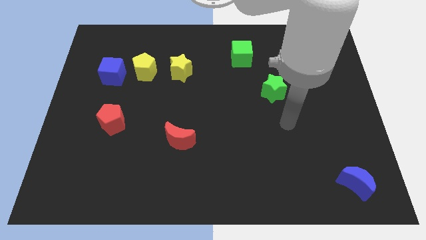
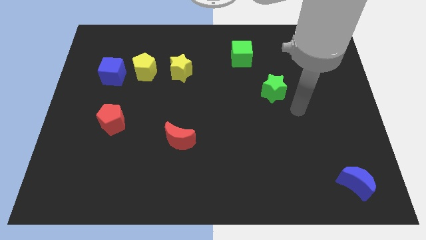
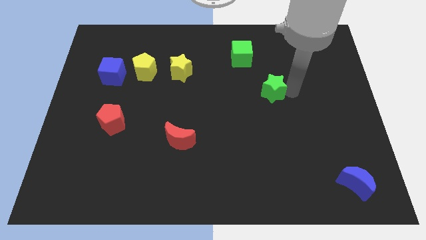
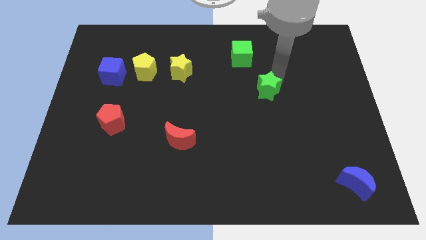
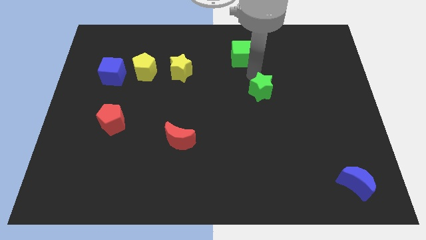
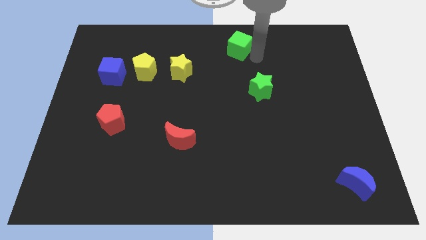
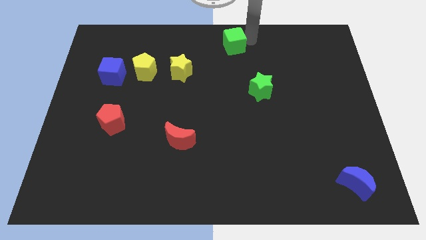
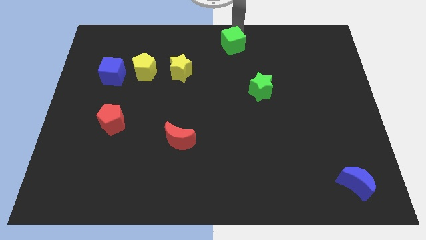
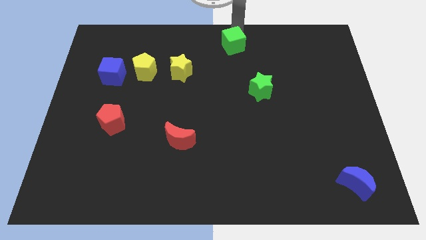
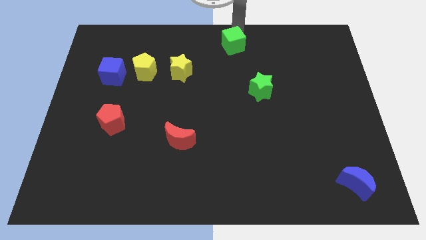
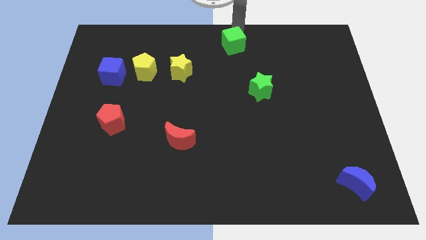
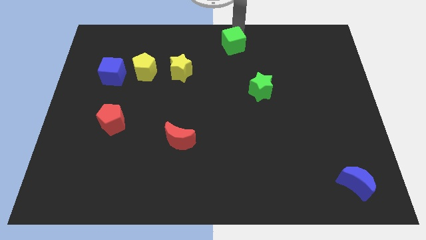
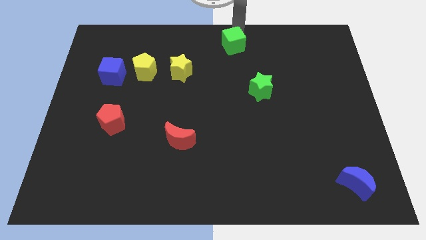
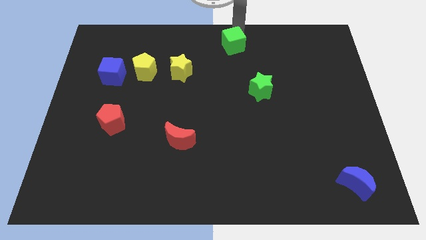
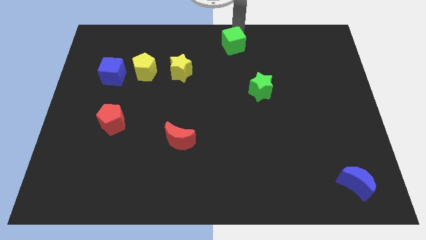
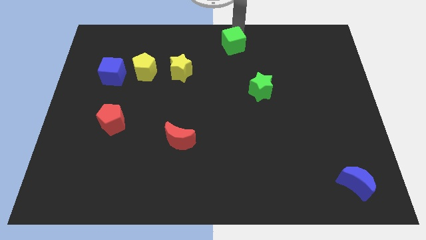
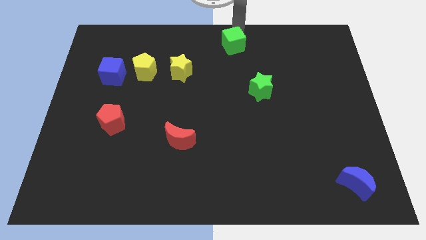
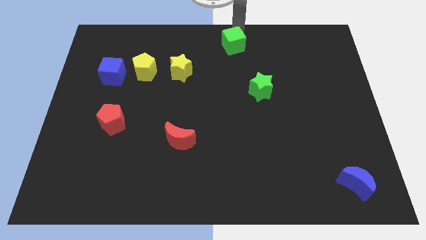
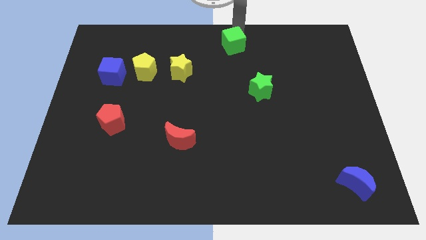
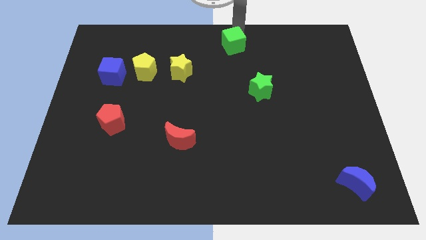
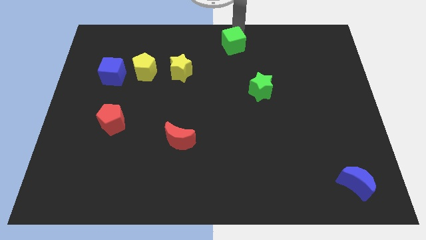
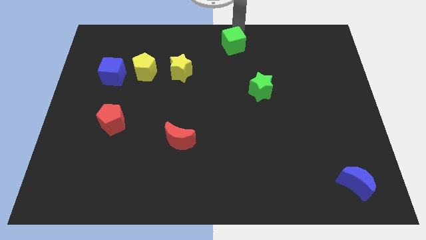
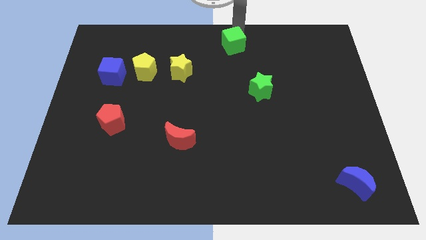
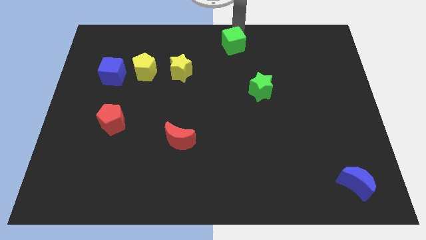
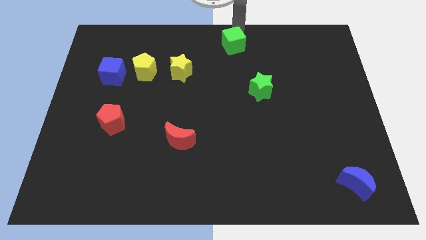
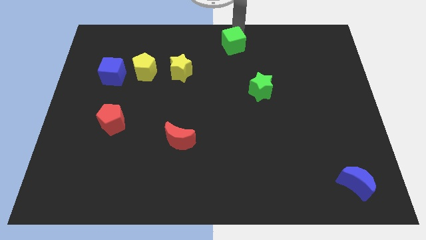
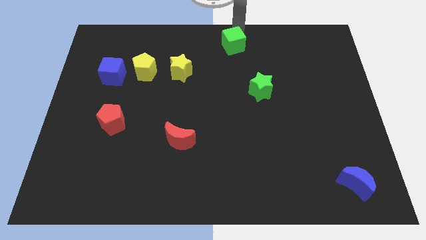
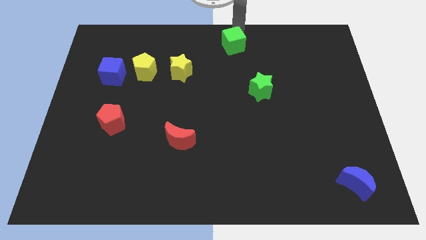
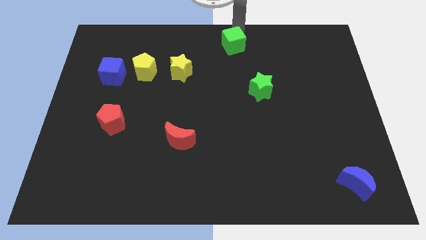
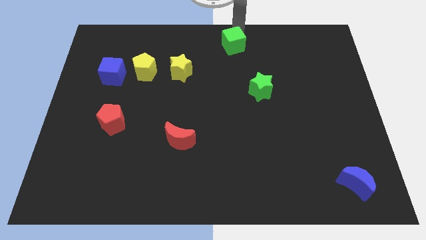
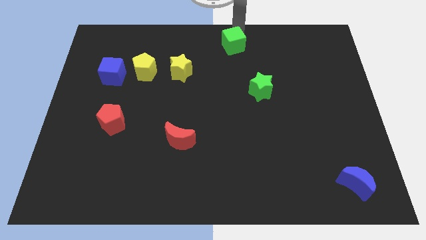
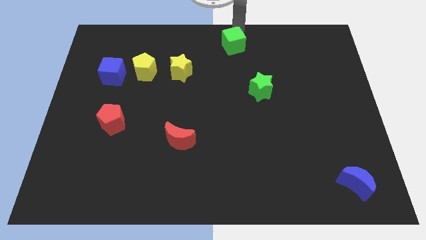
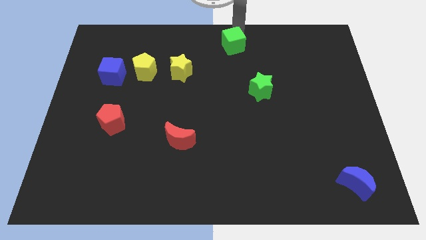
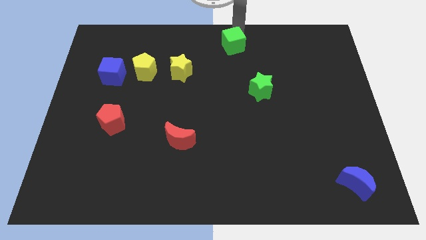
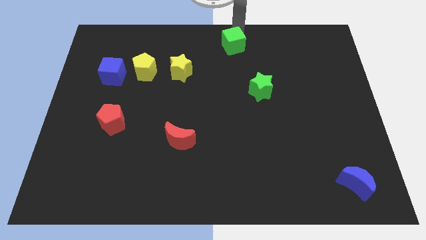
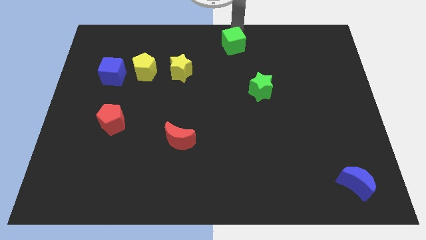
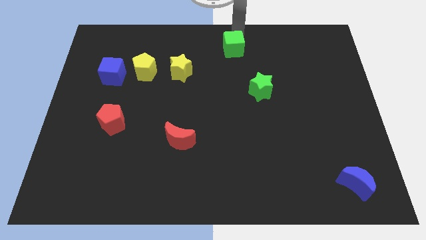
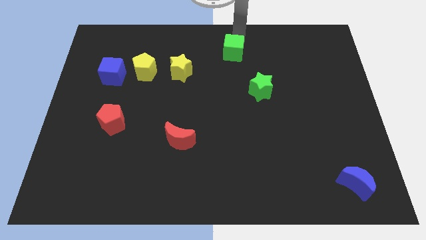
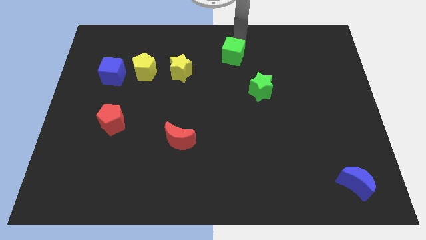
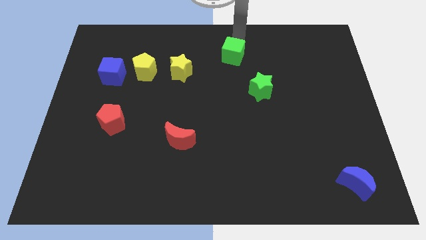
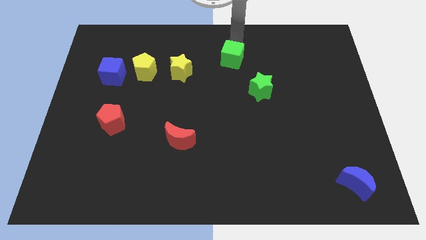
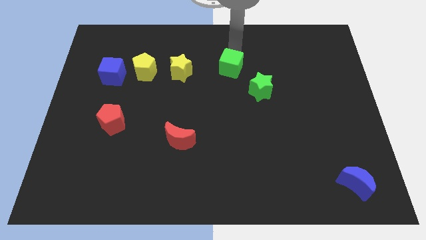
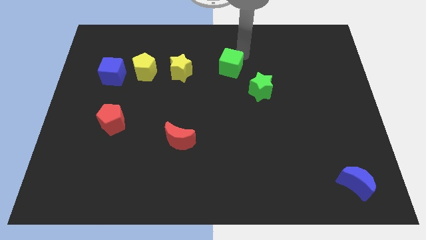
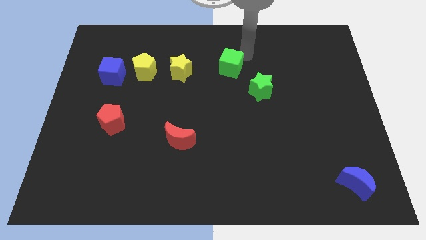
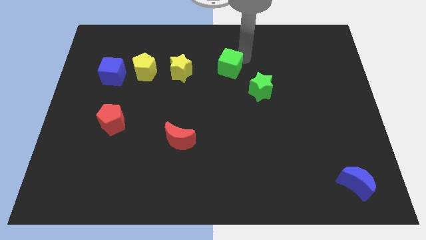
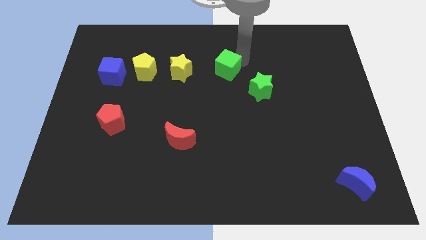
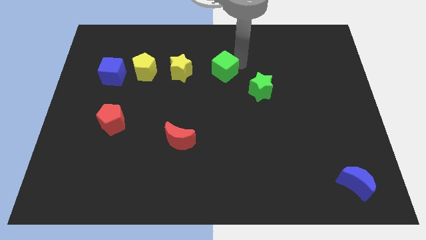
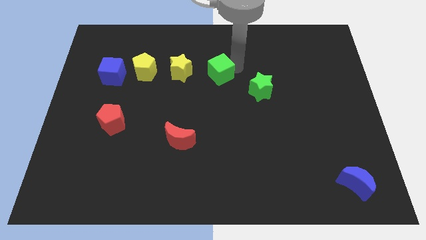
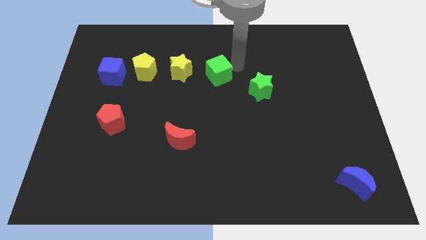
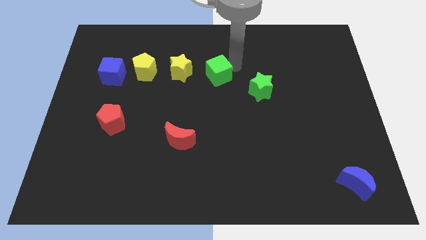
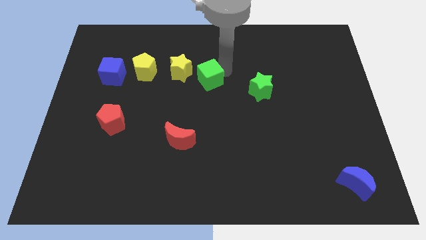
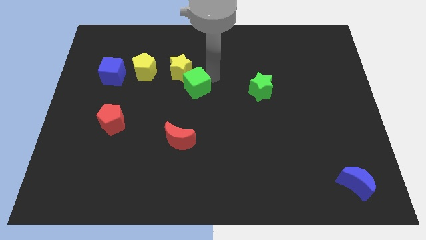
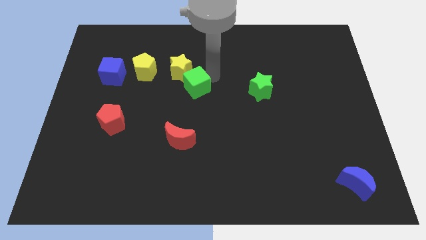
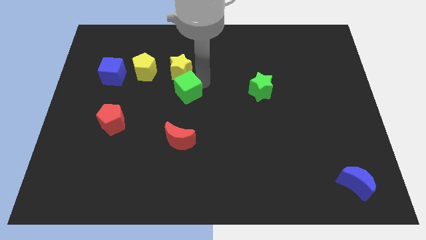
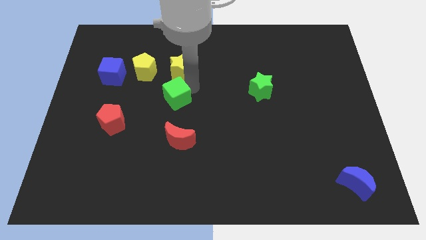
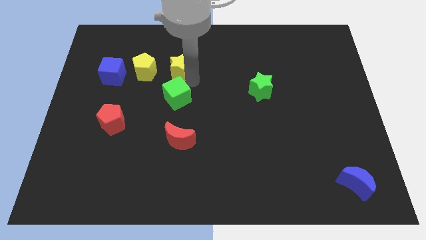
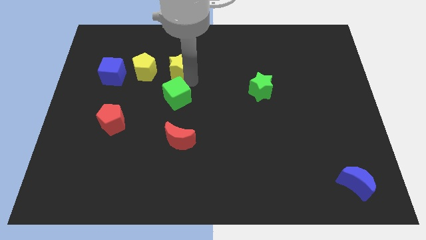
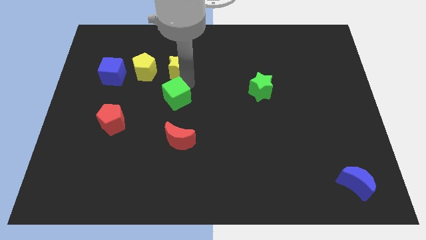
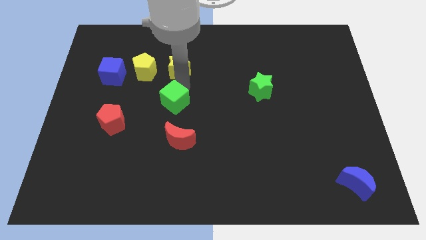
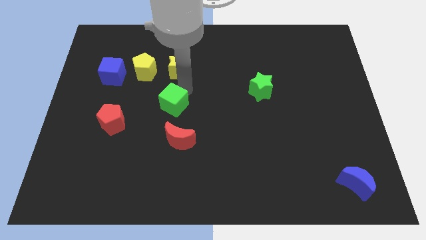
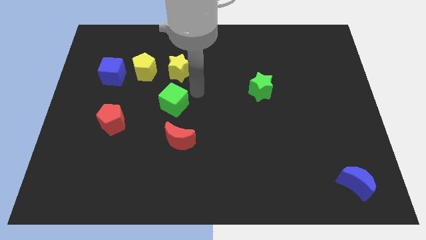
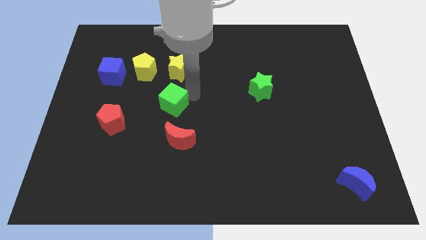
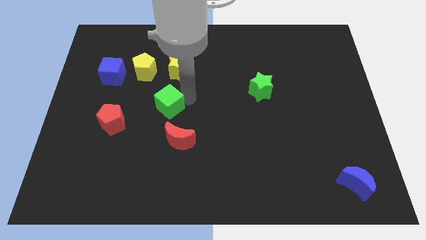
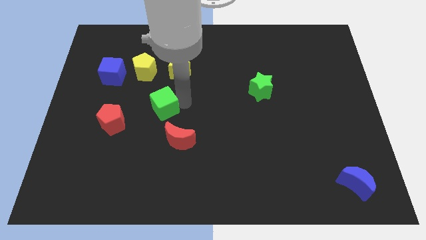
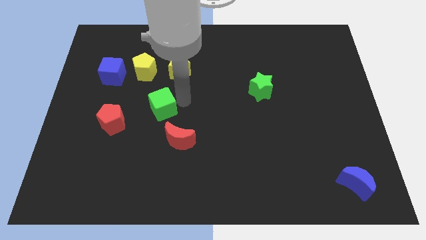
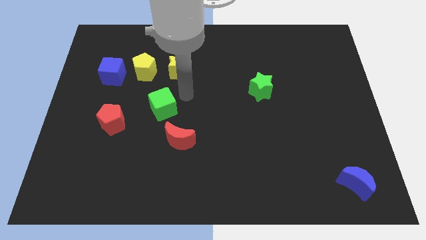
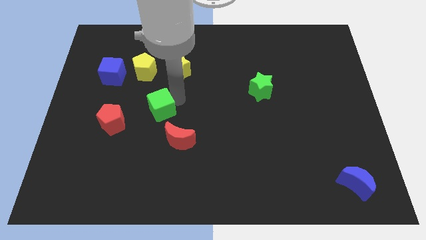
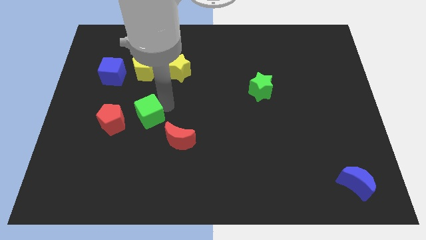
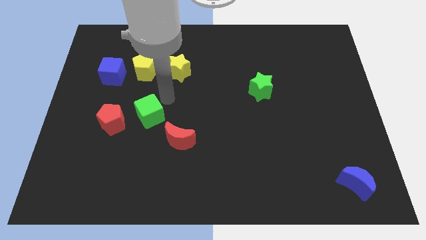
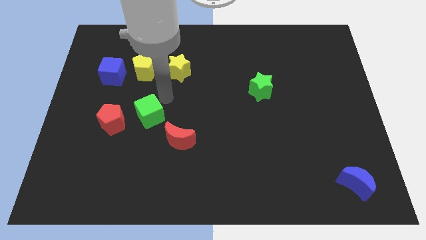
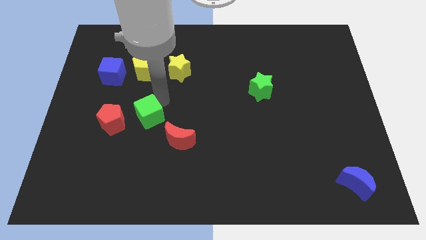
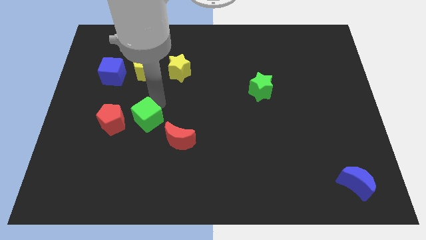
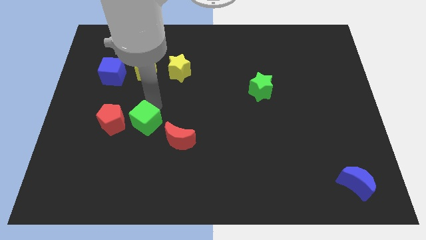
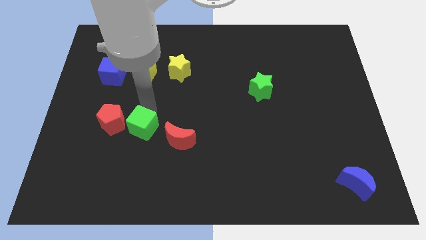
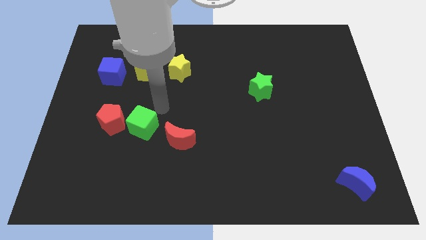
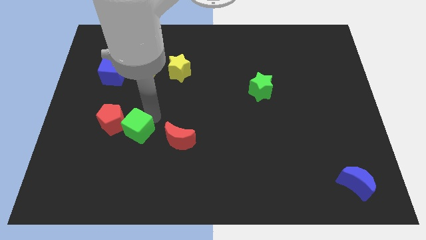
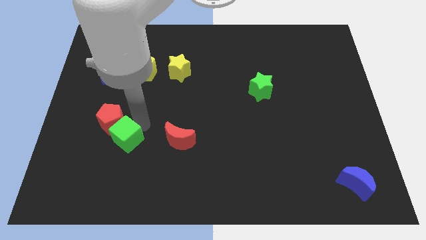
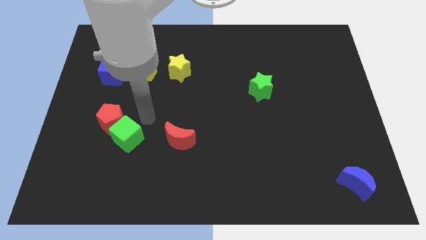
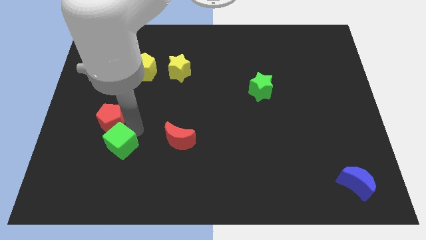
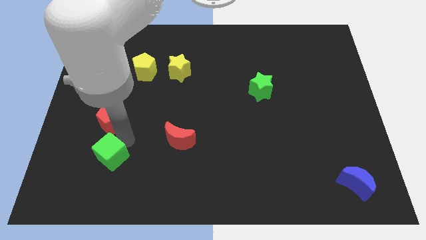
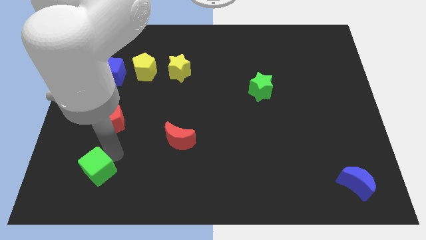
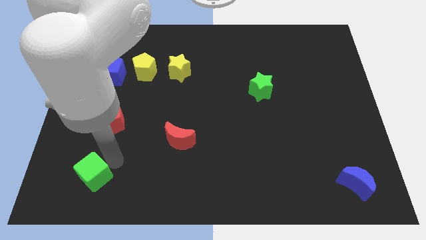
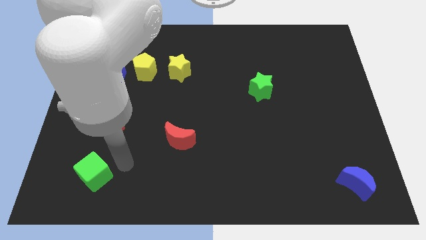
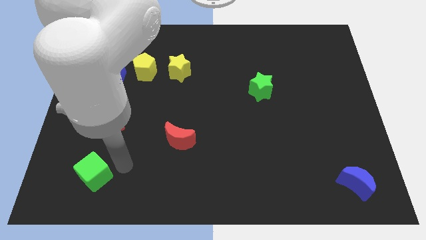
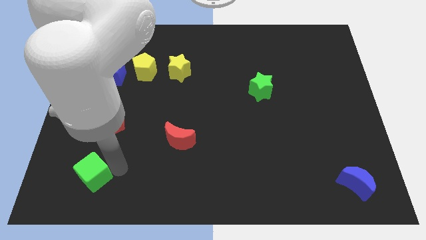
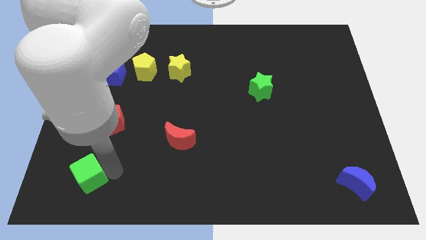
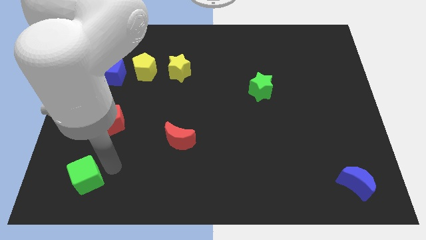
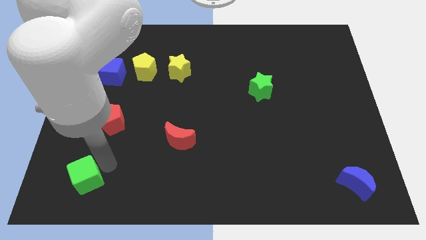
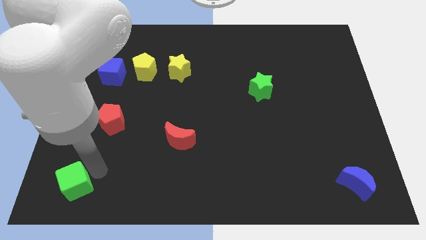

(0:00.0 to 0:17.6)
push the green cube to the bottom left corner
